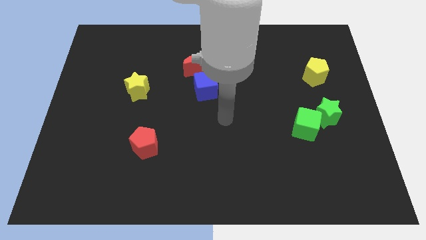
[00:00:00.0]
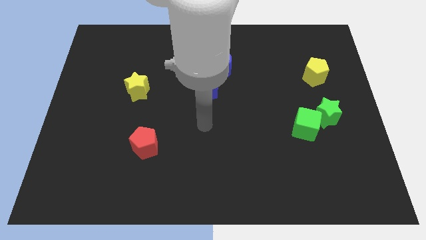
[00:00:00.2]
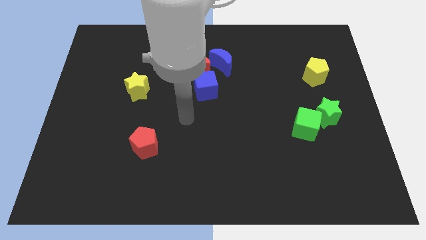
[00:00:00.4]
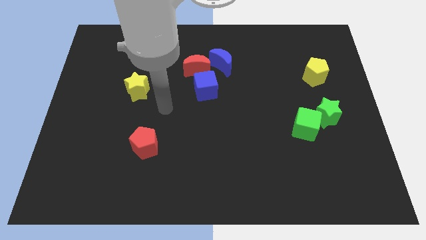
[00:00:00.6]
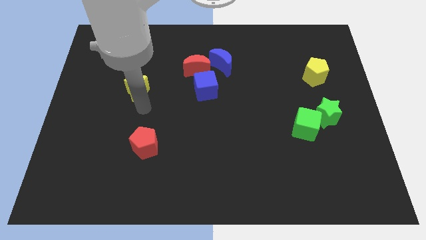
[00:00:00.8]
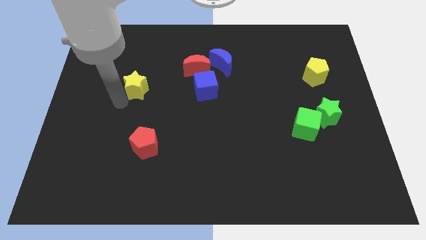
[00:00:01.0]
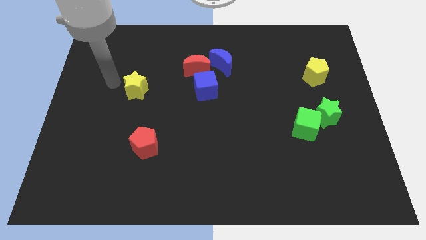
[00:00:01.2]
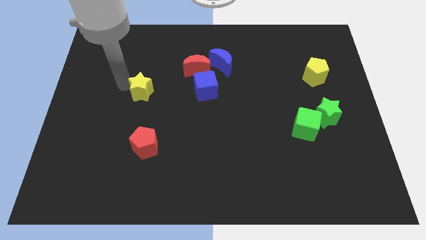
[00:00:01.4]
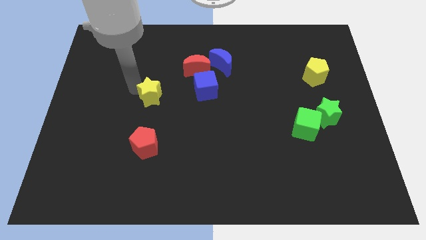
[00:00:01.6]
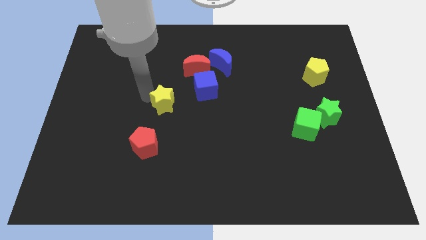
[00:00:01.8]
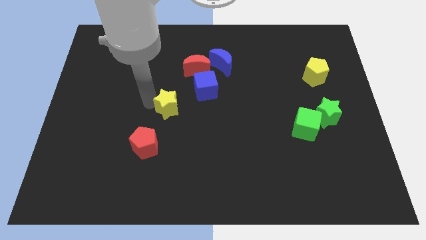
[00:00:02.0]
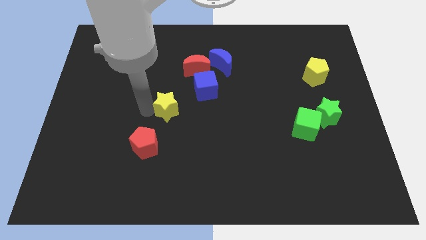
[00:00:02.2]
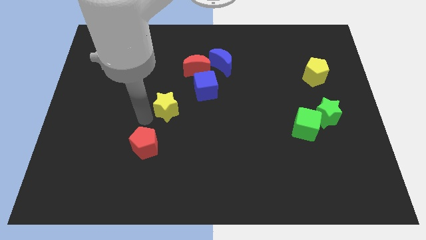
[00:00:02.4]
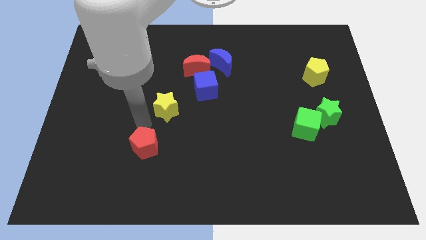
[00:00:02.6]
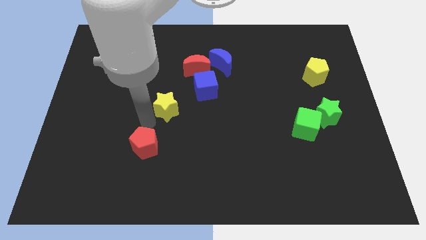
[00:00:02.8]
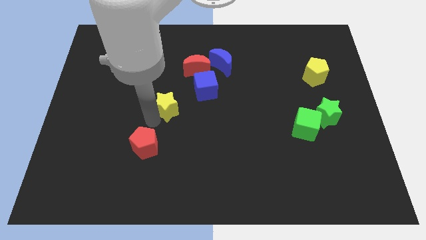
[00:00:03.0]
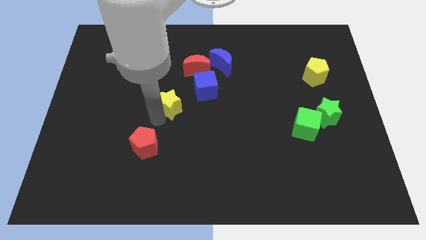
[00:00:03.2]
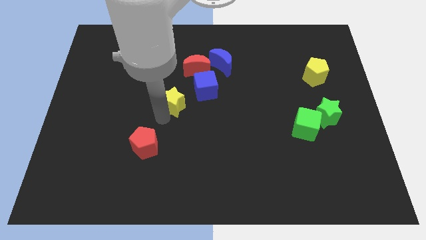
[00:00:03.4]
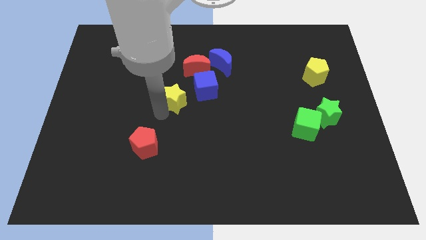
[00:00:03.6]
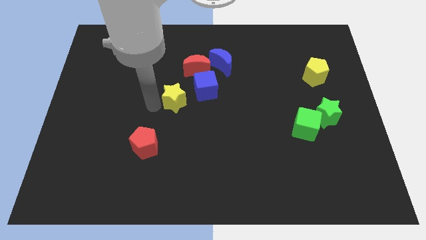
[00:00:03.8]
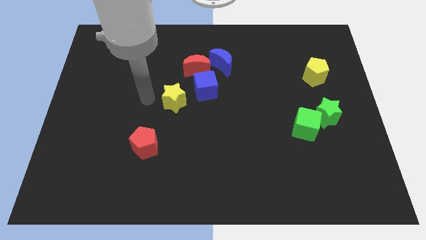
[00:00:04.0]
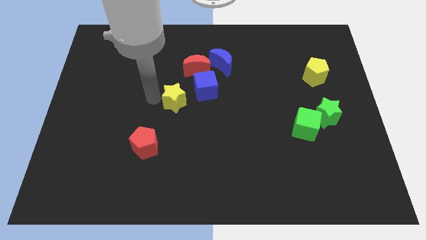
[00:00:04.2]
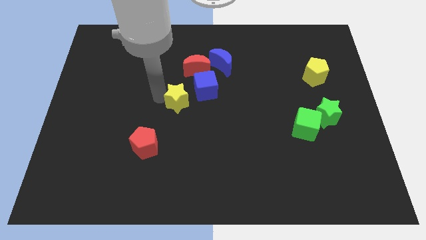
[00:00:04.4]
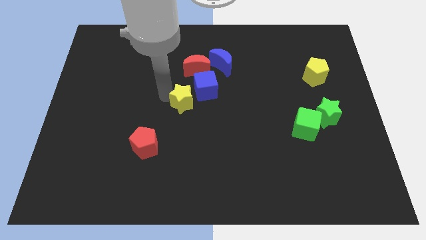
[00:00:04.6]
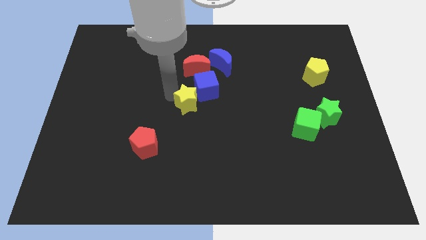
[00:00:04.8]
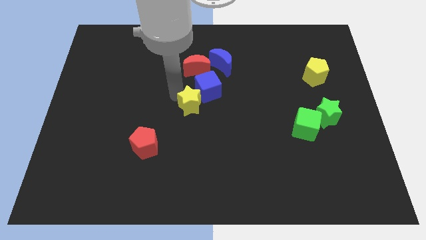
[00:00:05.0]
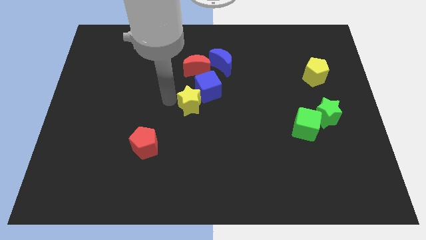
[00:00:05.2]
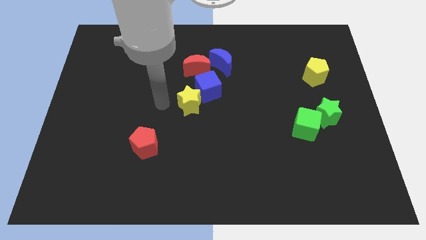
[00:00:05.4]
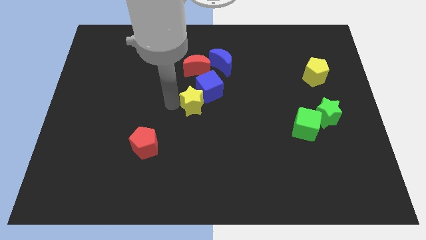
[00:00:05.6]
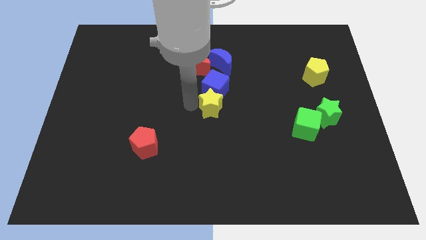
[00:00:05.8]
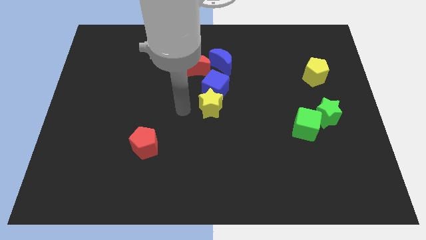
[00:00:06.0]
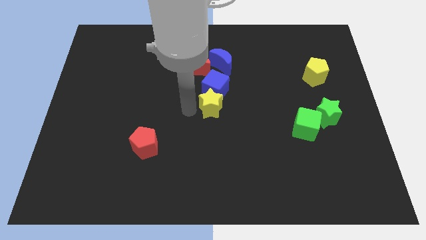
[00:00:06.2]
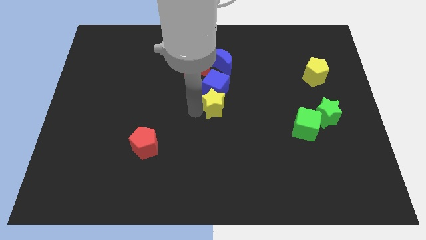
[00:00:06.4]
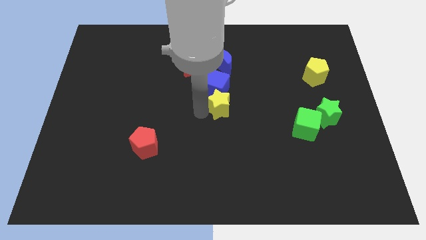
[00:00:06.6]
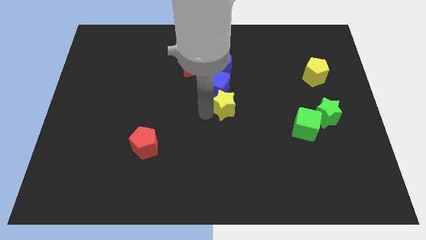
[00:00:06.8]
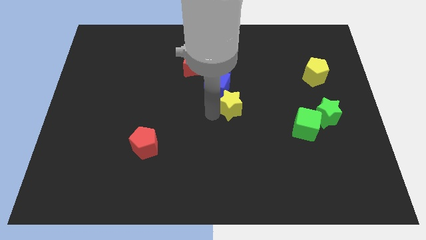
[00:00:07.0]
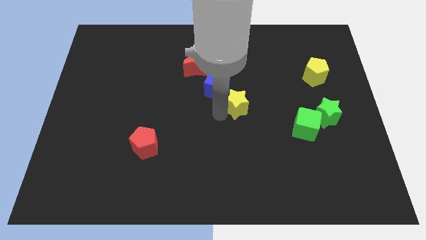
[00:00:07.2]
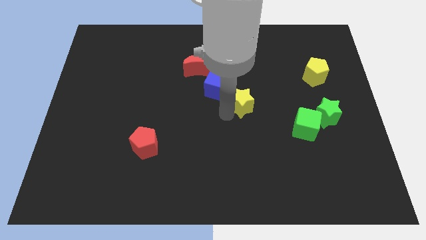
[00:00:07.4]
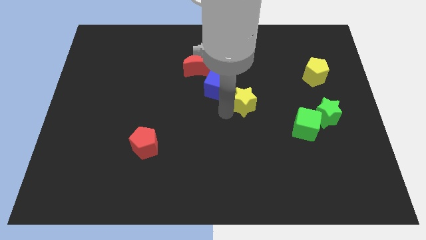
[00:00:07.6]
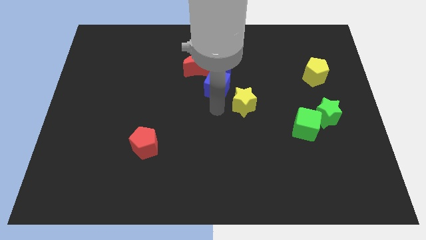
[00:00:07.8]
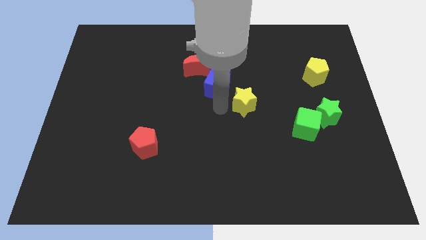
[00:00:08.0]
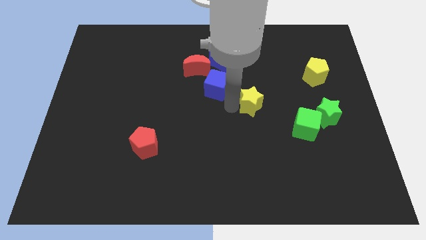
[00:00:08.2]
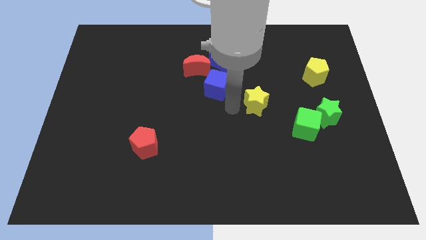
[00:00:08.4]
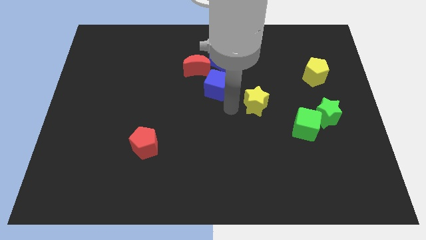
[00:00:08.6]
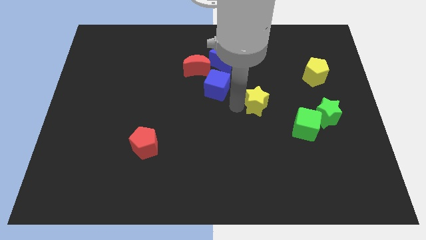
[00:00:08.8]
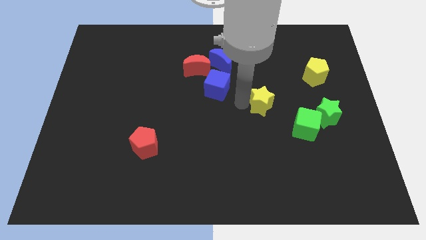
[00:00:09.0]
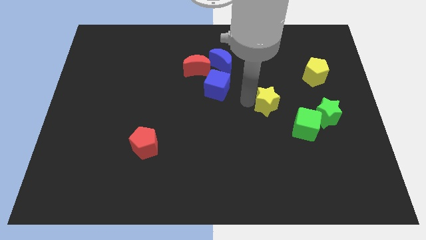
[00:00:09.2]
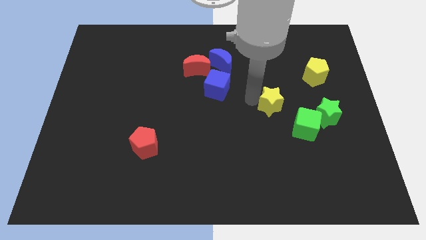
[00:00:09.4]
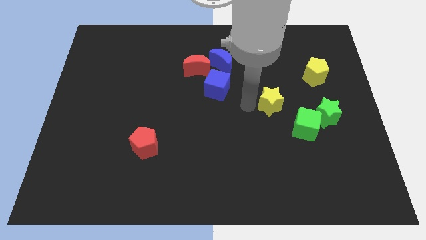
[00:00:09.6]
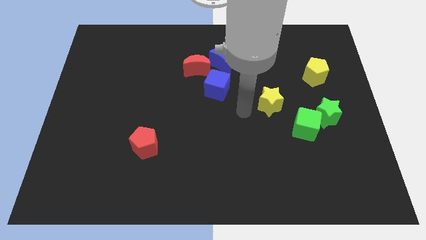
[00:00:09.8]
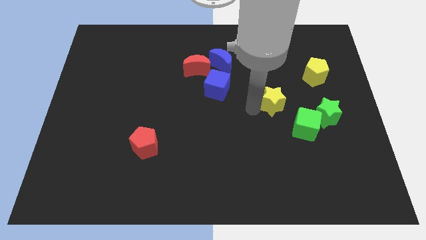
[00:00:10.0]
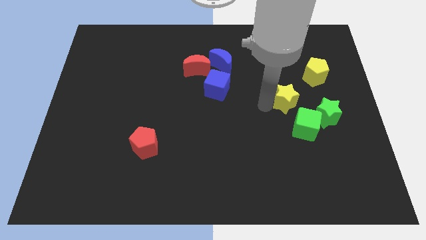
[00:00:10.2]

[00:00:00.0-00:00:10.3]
put the yellow star to the top left of the green star

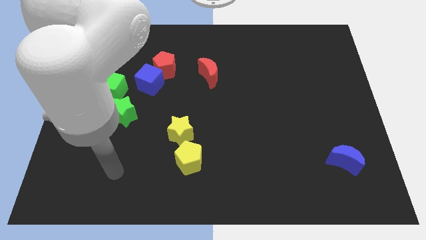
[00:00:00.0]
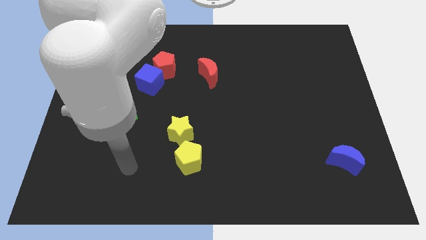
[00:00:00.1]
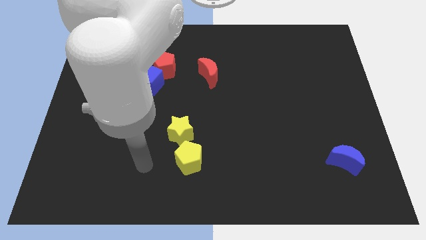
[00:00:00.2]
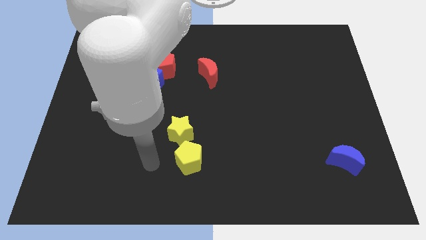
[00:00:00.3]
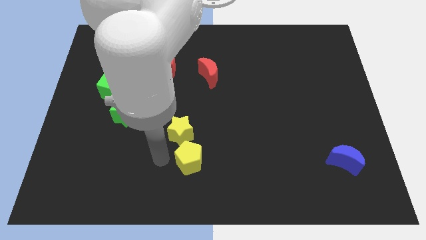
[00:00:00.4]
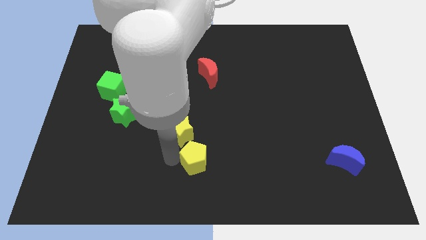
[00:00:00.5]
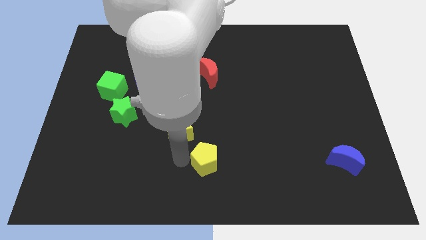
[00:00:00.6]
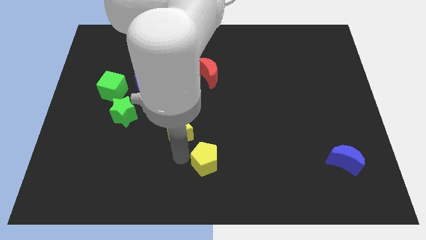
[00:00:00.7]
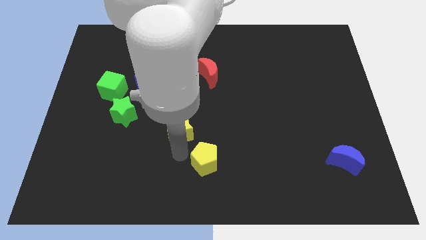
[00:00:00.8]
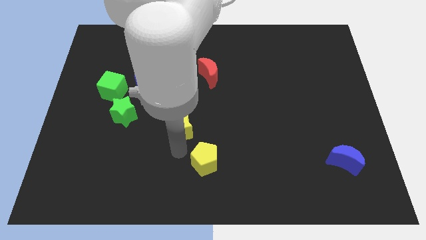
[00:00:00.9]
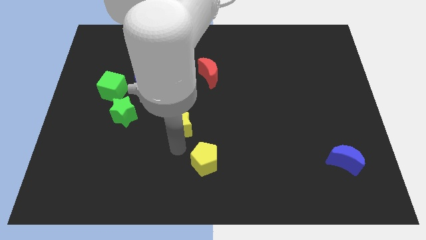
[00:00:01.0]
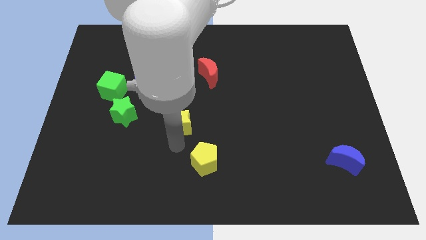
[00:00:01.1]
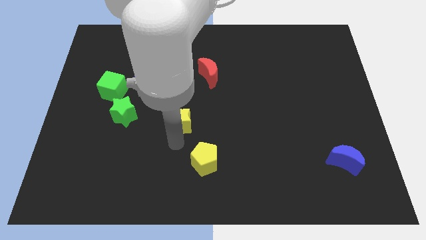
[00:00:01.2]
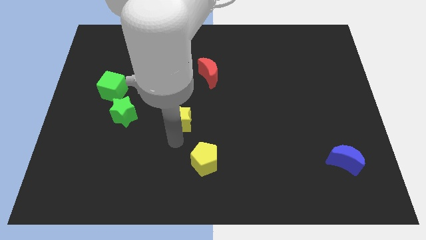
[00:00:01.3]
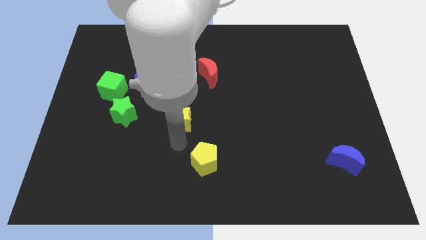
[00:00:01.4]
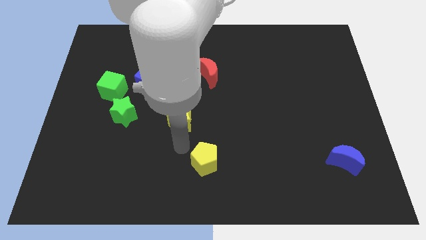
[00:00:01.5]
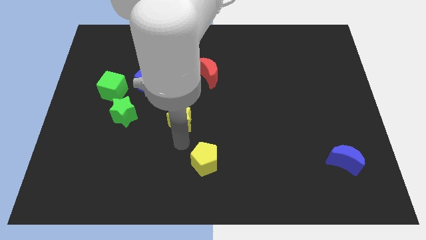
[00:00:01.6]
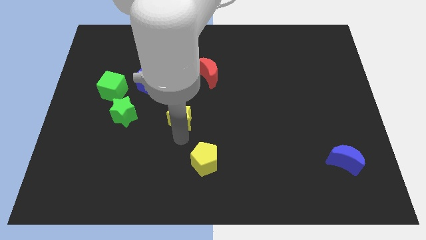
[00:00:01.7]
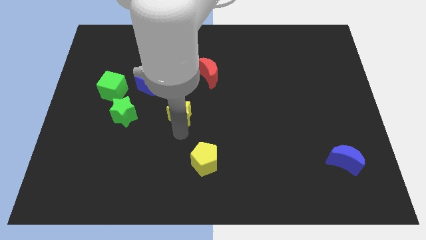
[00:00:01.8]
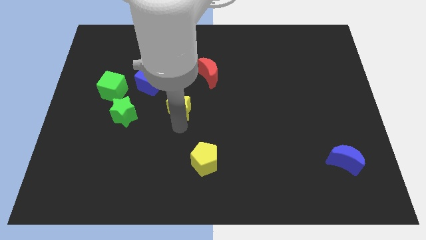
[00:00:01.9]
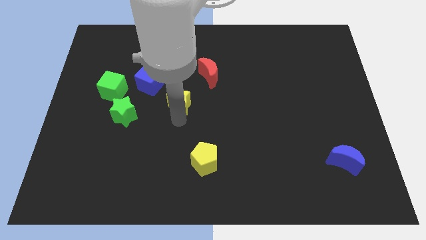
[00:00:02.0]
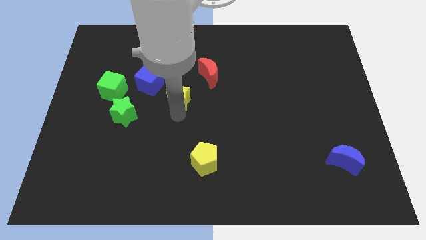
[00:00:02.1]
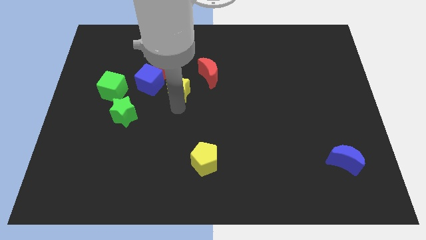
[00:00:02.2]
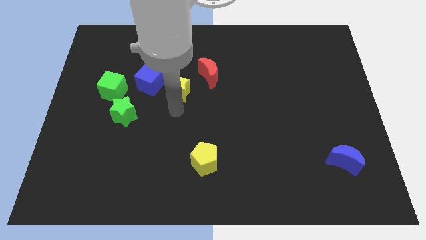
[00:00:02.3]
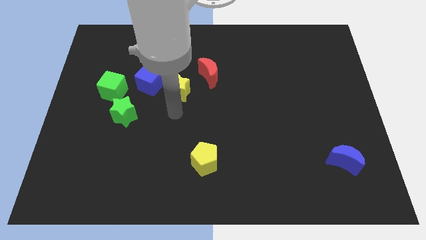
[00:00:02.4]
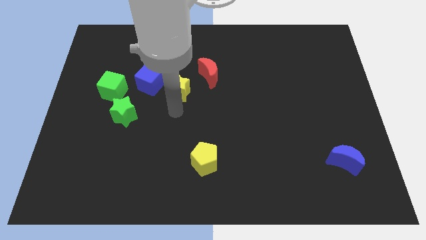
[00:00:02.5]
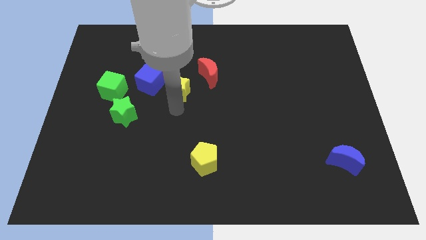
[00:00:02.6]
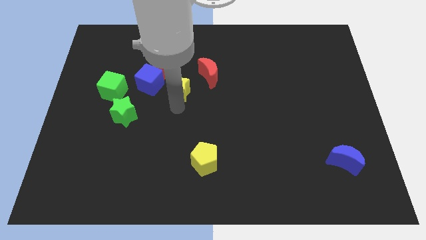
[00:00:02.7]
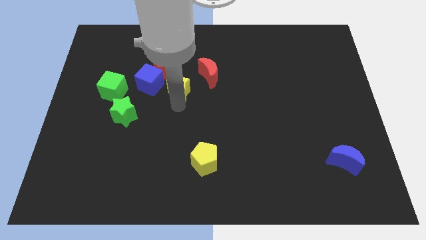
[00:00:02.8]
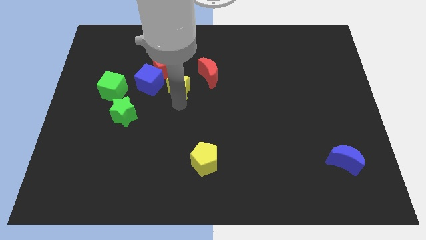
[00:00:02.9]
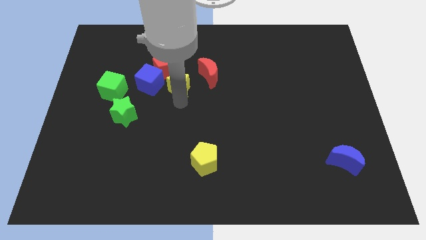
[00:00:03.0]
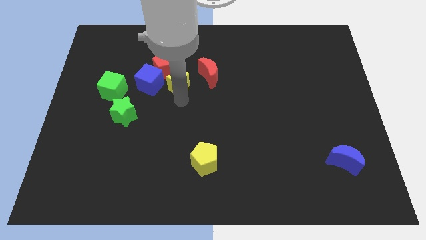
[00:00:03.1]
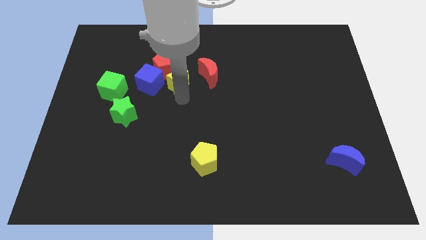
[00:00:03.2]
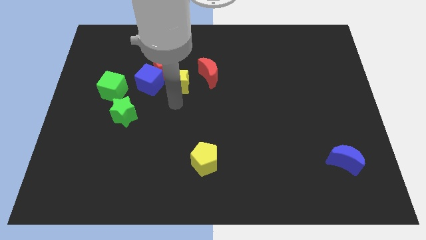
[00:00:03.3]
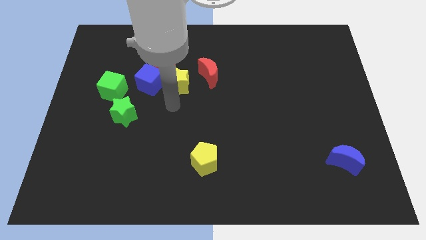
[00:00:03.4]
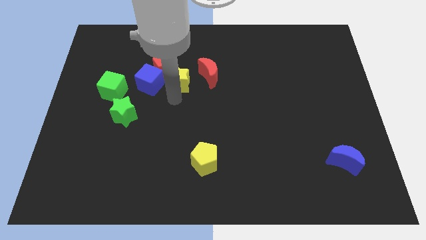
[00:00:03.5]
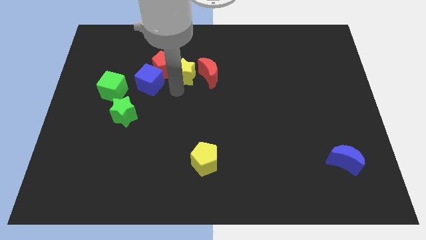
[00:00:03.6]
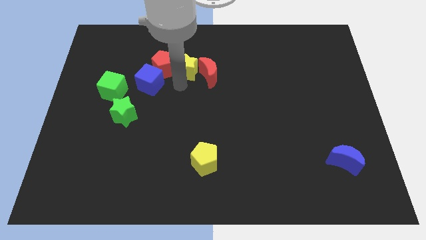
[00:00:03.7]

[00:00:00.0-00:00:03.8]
slide the yellow star diagonally up and to the right of the red pentagon
